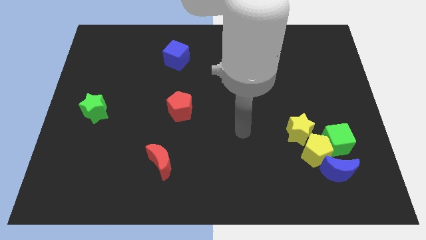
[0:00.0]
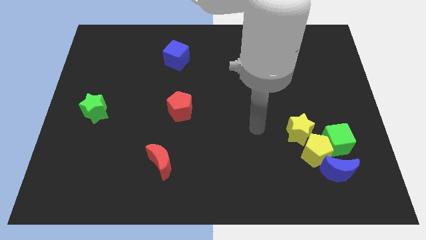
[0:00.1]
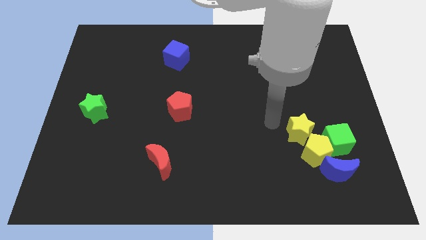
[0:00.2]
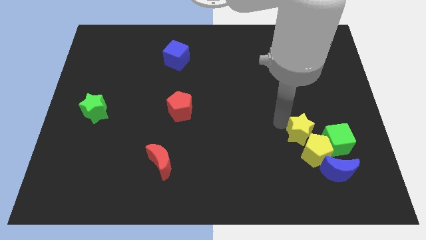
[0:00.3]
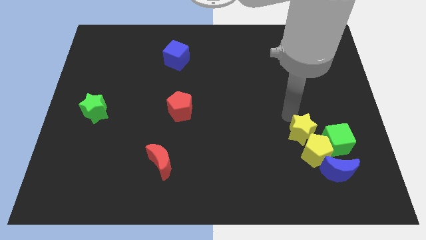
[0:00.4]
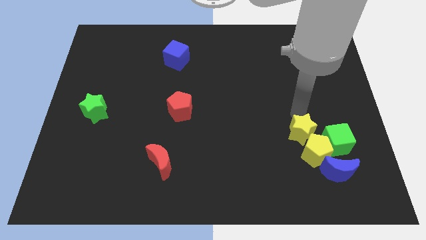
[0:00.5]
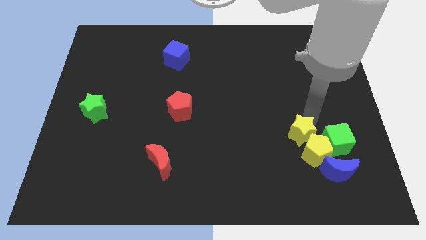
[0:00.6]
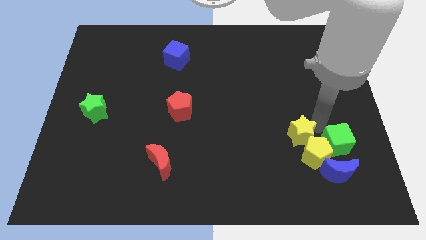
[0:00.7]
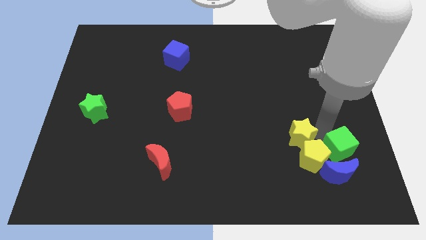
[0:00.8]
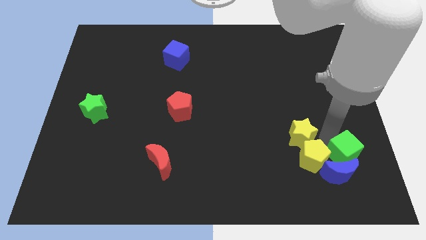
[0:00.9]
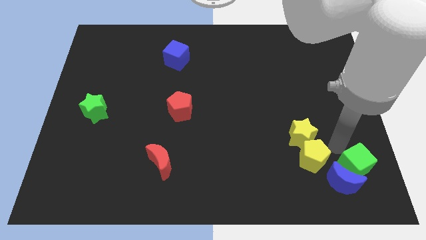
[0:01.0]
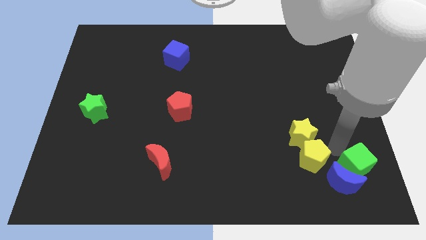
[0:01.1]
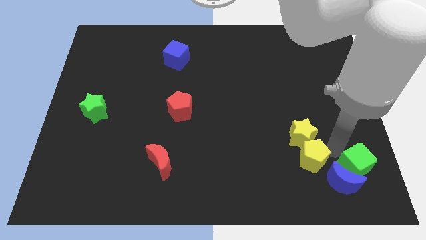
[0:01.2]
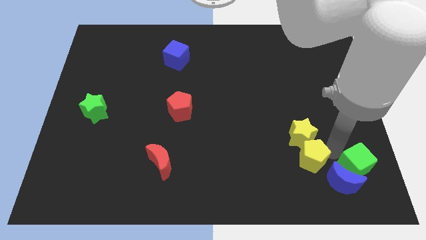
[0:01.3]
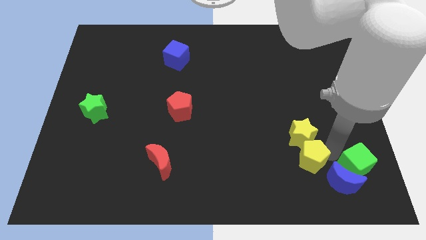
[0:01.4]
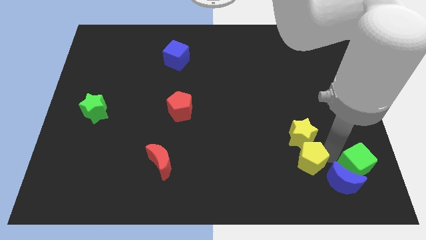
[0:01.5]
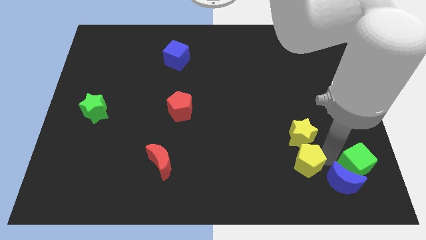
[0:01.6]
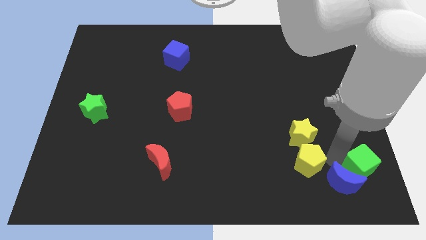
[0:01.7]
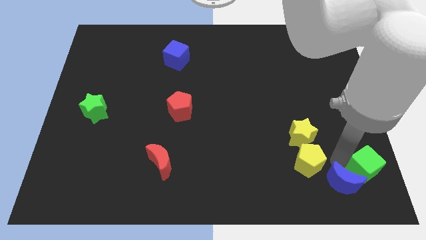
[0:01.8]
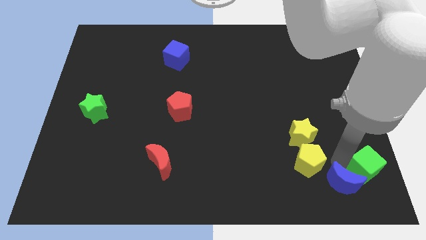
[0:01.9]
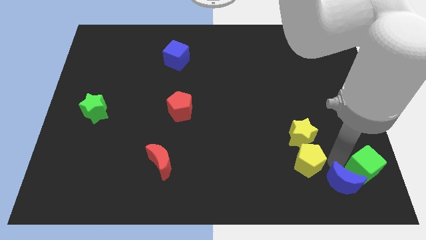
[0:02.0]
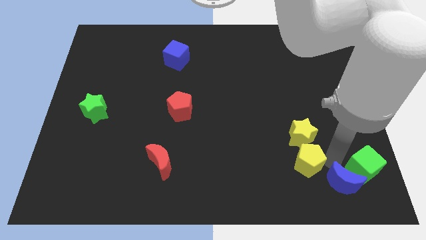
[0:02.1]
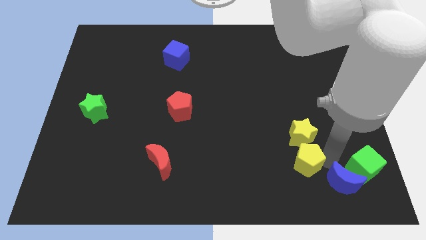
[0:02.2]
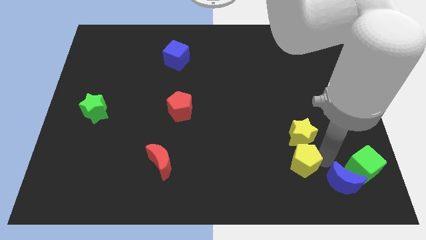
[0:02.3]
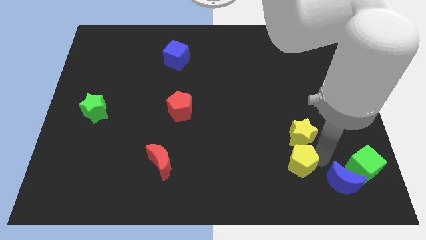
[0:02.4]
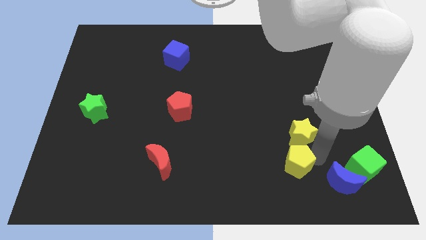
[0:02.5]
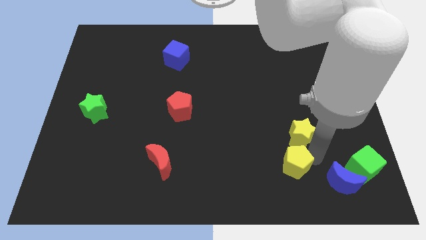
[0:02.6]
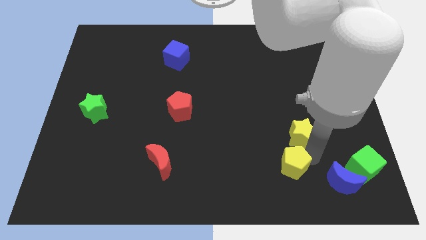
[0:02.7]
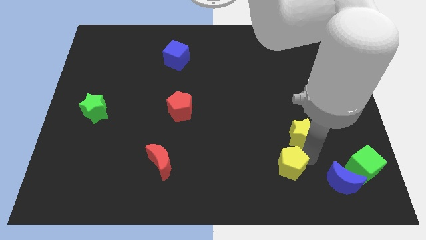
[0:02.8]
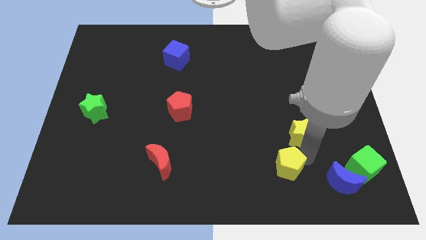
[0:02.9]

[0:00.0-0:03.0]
pull the yellow pentagon apart from the group of blocks

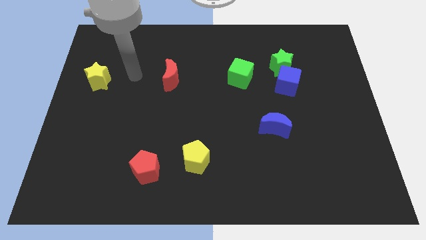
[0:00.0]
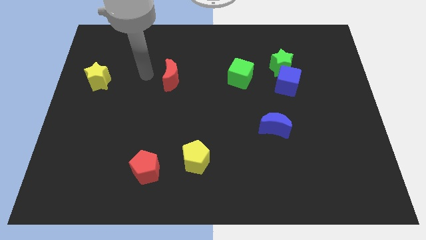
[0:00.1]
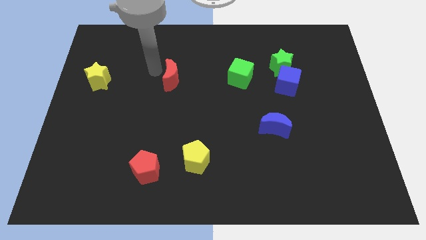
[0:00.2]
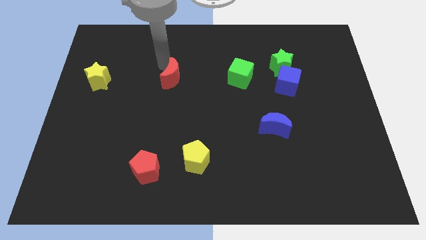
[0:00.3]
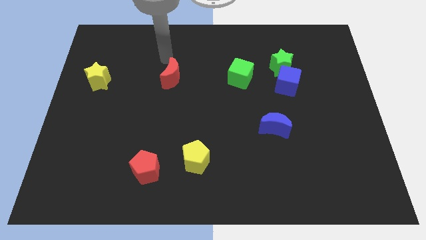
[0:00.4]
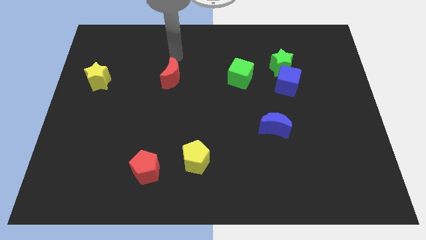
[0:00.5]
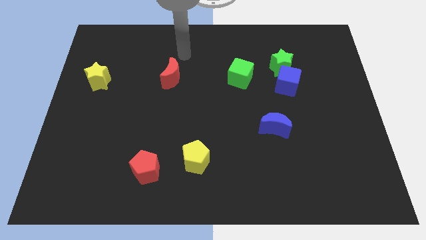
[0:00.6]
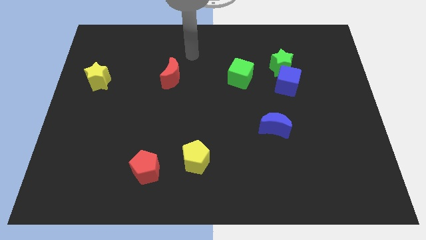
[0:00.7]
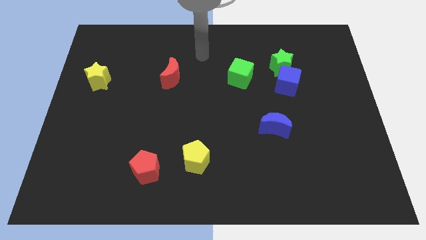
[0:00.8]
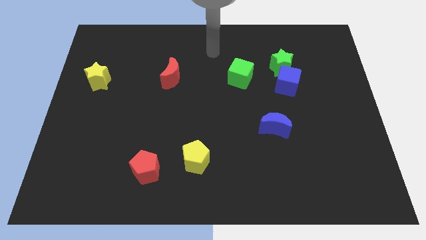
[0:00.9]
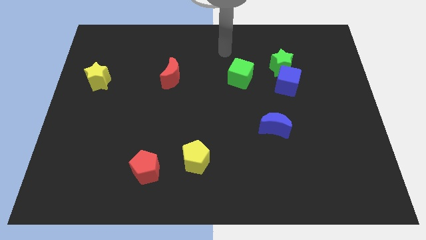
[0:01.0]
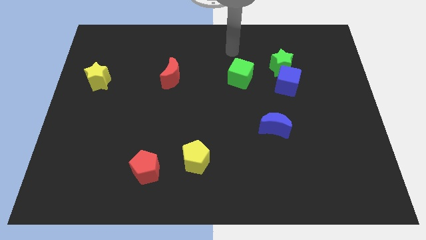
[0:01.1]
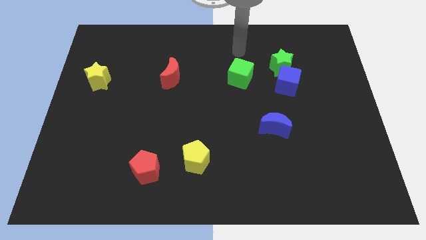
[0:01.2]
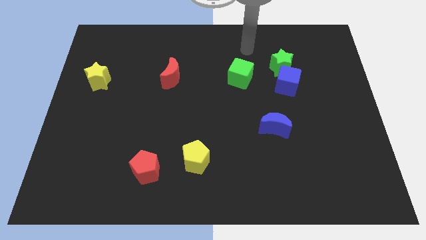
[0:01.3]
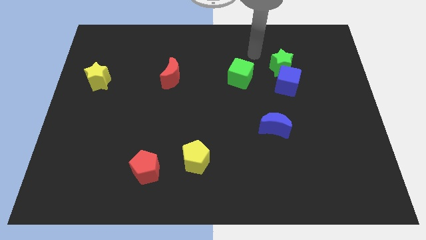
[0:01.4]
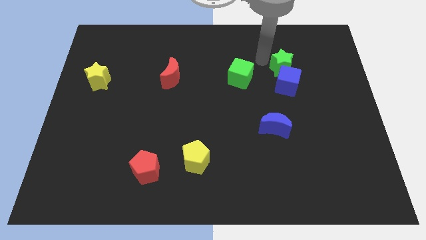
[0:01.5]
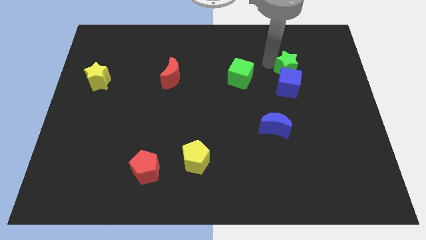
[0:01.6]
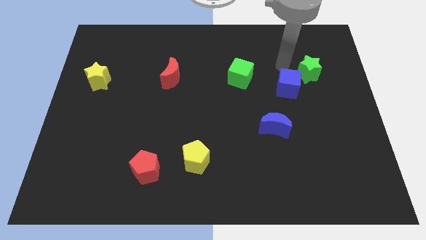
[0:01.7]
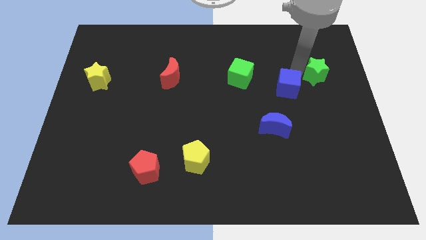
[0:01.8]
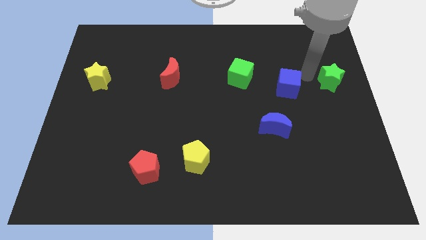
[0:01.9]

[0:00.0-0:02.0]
move the blue cube away from the green star

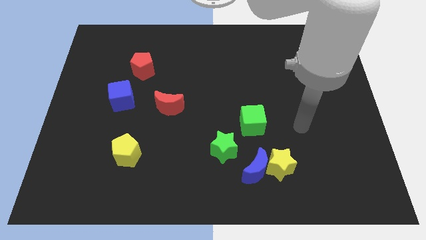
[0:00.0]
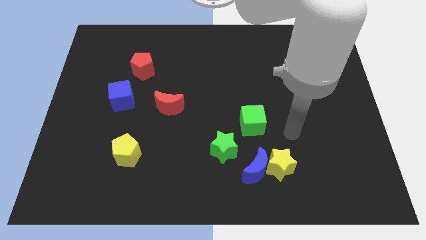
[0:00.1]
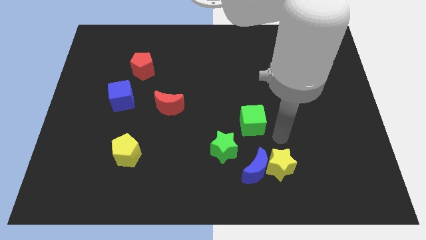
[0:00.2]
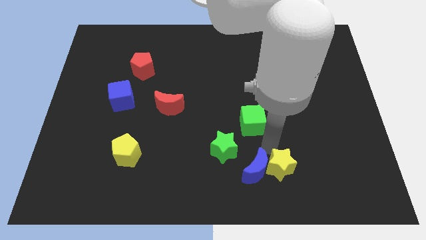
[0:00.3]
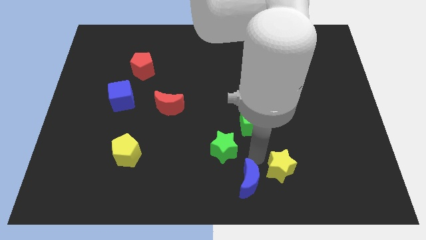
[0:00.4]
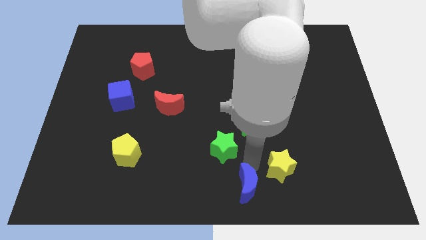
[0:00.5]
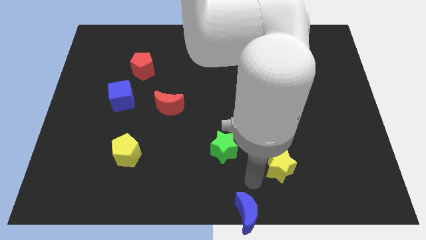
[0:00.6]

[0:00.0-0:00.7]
move the yellow star away from the blue moon

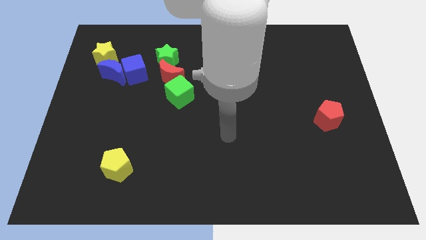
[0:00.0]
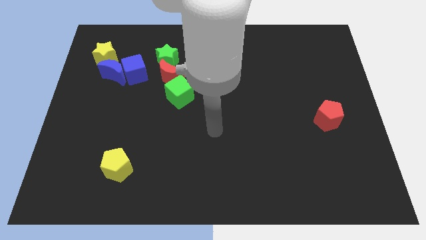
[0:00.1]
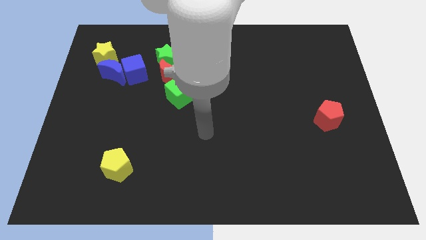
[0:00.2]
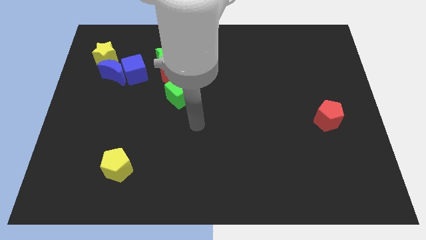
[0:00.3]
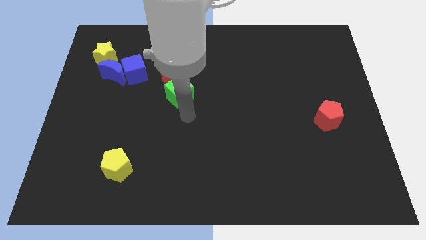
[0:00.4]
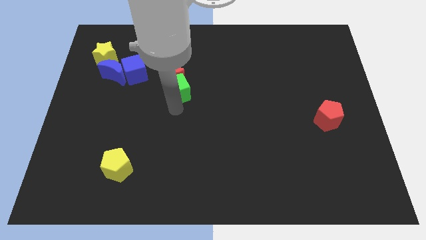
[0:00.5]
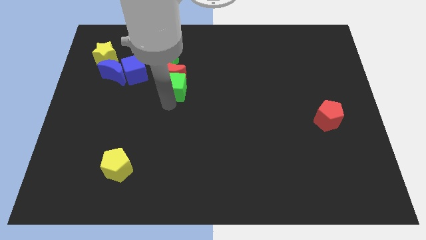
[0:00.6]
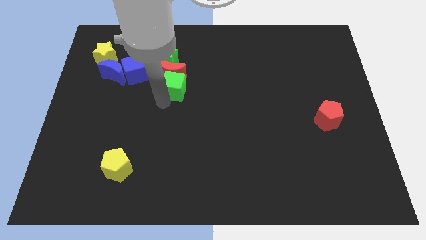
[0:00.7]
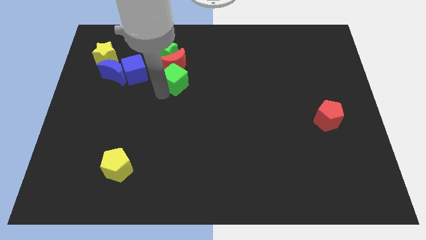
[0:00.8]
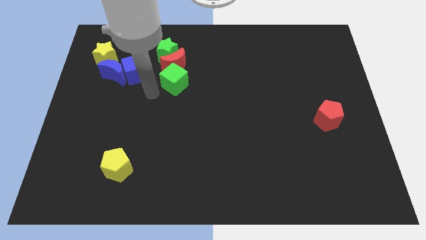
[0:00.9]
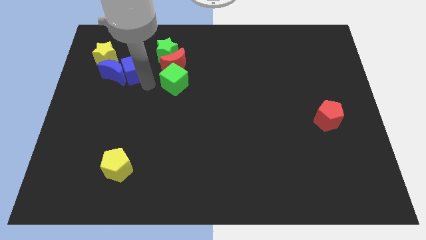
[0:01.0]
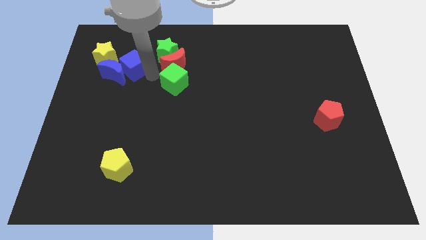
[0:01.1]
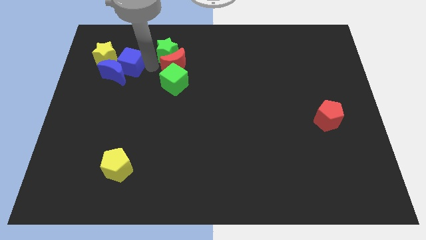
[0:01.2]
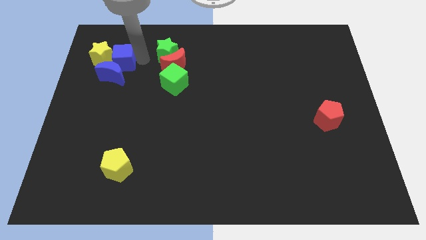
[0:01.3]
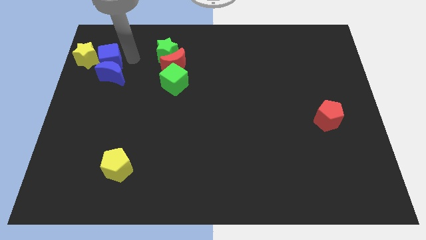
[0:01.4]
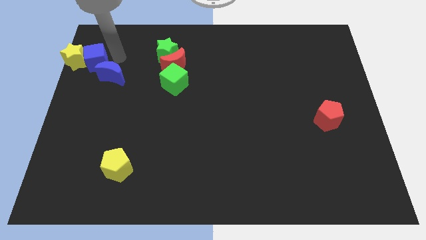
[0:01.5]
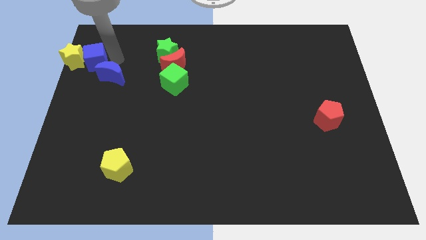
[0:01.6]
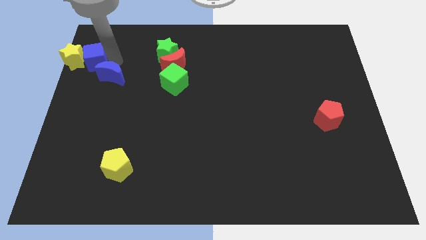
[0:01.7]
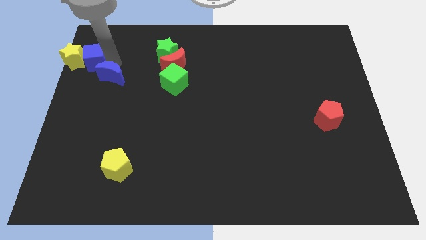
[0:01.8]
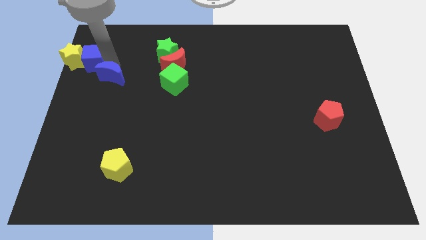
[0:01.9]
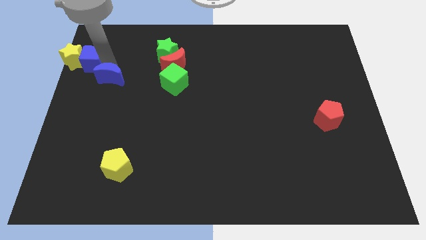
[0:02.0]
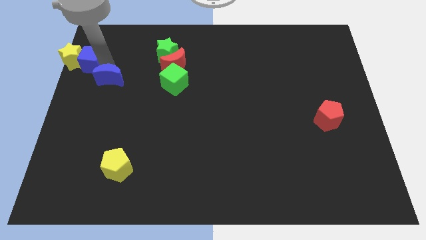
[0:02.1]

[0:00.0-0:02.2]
separate the blue moon from the blue cube and yellow star

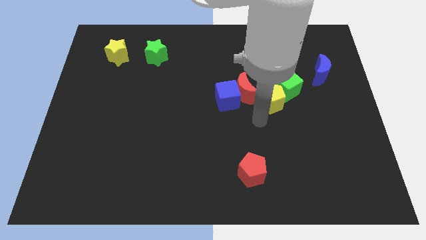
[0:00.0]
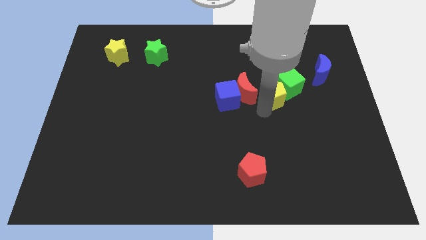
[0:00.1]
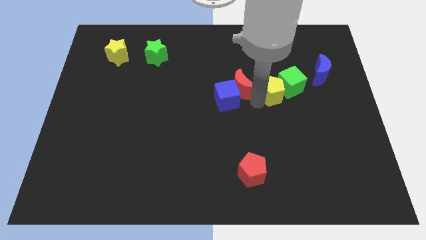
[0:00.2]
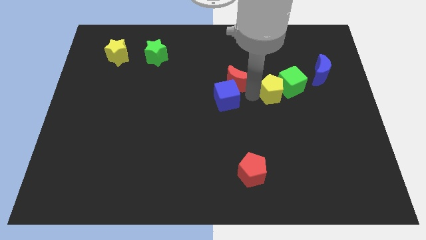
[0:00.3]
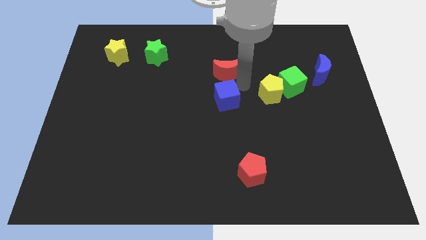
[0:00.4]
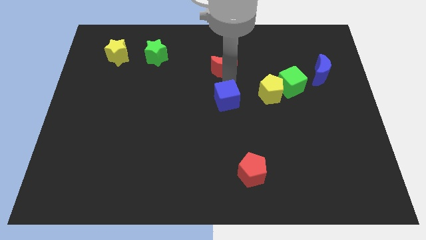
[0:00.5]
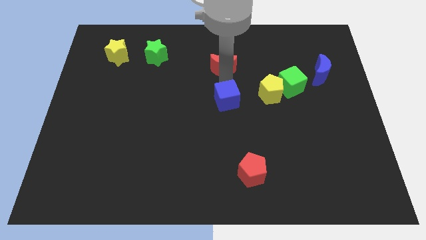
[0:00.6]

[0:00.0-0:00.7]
move the blue cube away from the red moon

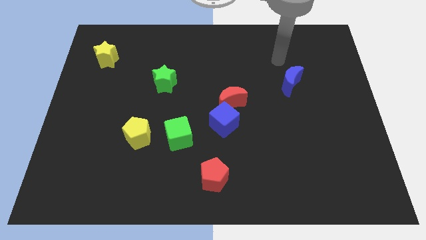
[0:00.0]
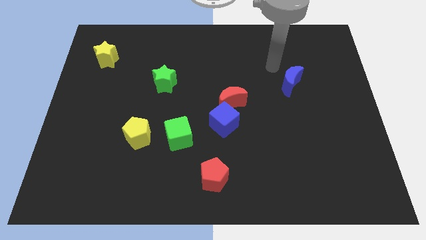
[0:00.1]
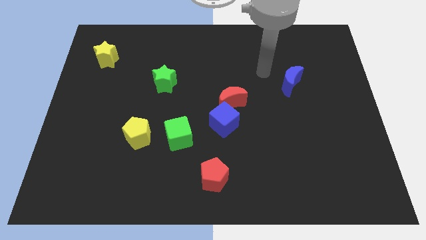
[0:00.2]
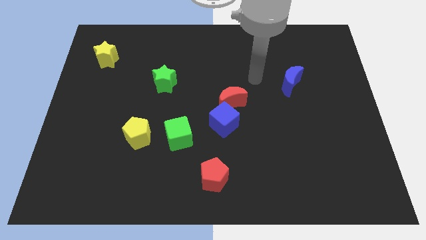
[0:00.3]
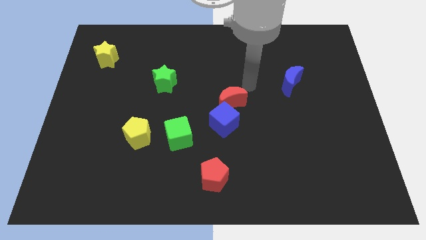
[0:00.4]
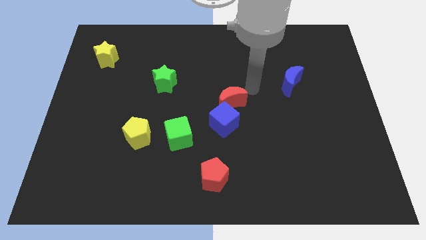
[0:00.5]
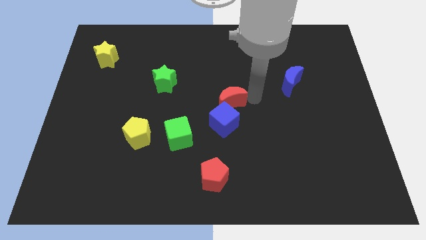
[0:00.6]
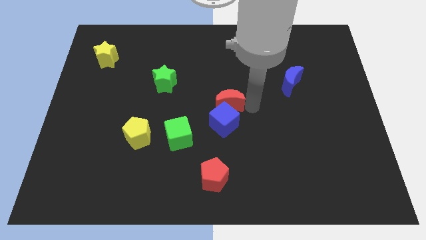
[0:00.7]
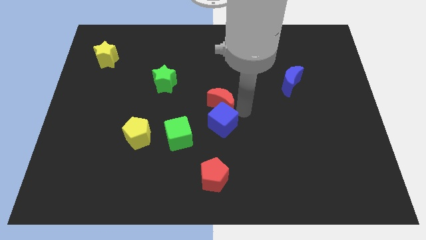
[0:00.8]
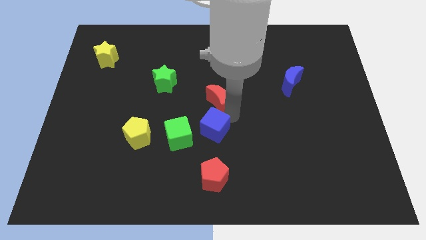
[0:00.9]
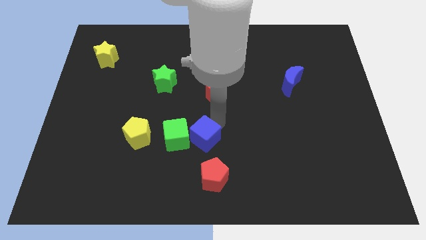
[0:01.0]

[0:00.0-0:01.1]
move the red moon away from the blue cube
